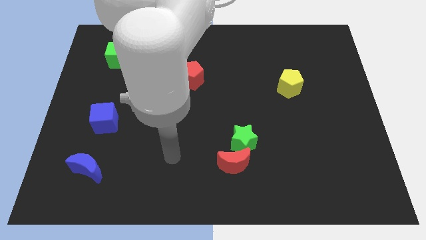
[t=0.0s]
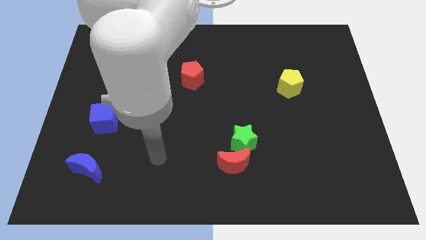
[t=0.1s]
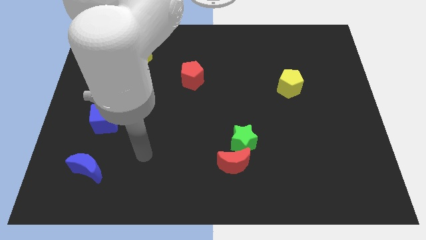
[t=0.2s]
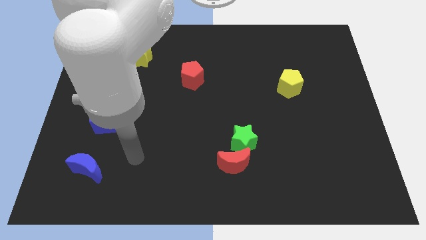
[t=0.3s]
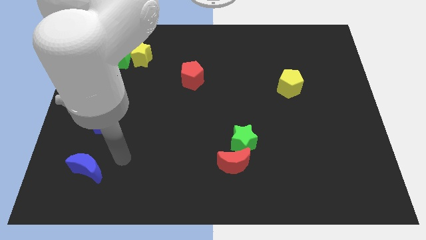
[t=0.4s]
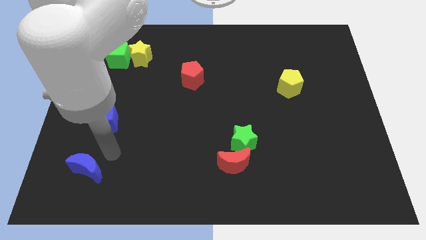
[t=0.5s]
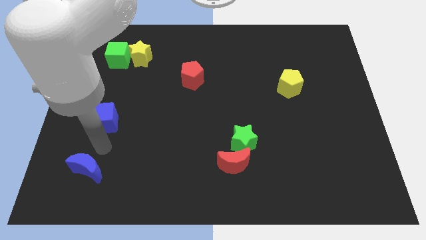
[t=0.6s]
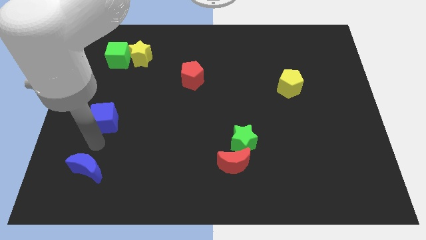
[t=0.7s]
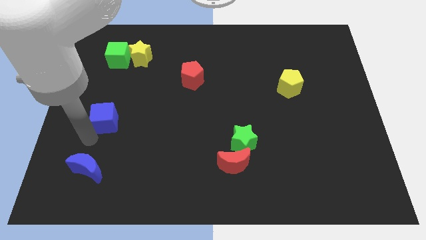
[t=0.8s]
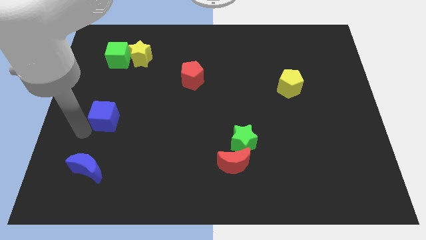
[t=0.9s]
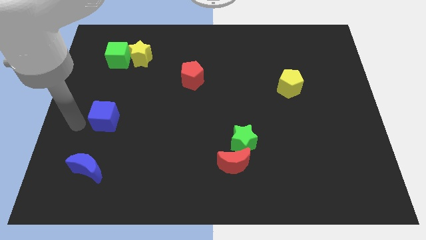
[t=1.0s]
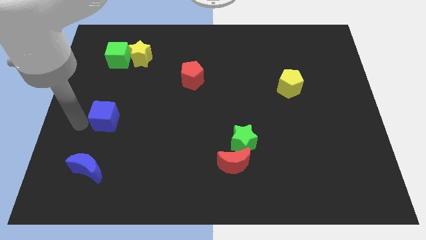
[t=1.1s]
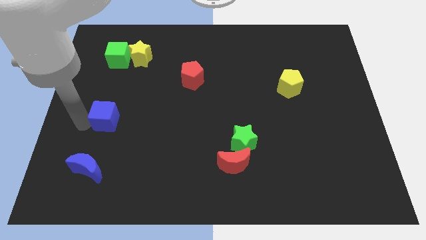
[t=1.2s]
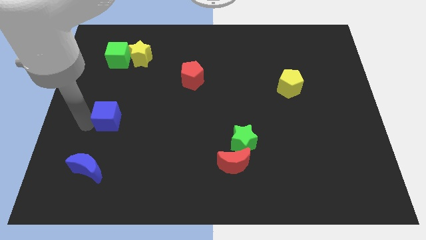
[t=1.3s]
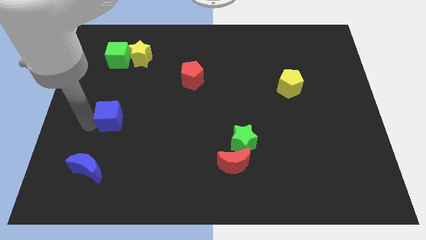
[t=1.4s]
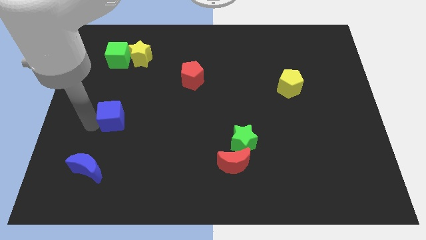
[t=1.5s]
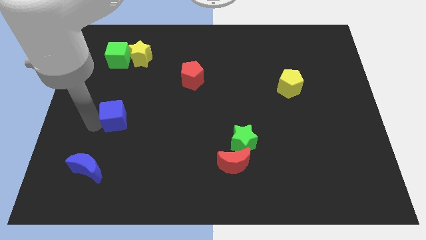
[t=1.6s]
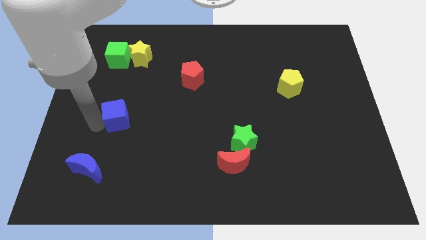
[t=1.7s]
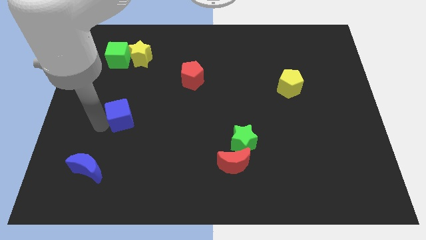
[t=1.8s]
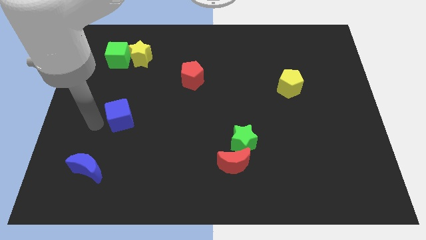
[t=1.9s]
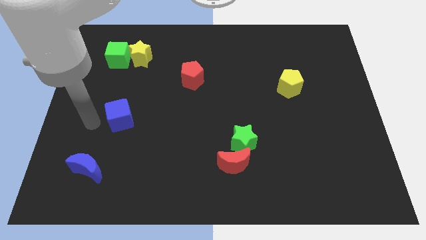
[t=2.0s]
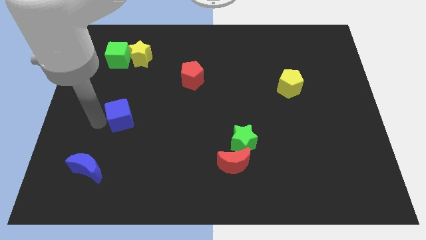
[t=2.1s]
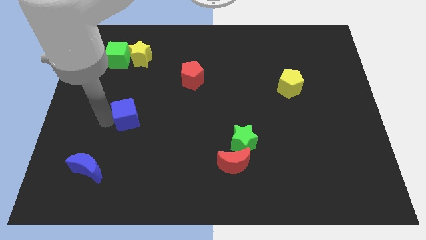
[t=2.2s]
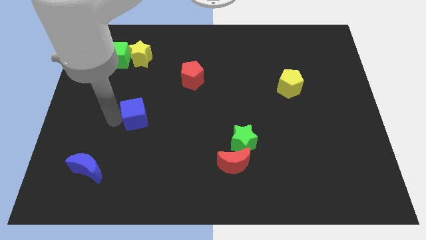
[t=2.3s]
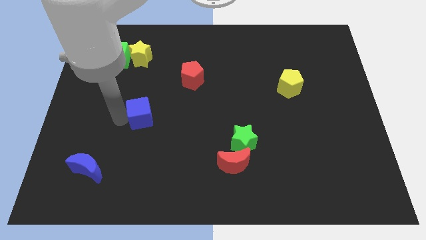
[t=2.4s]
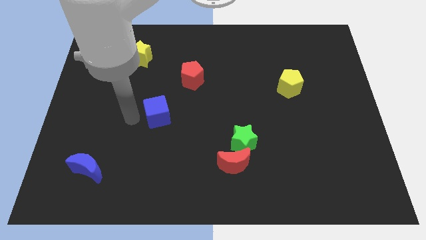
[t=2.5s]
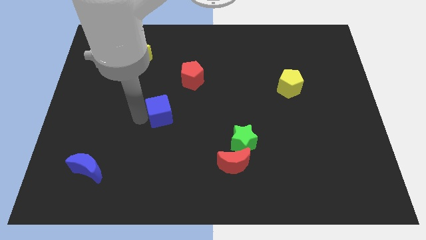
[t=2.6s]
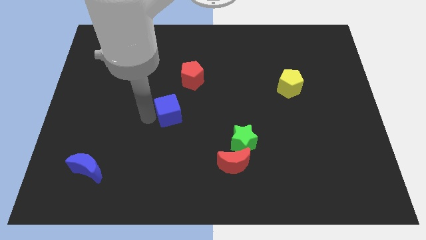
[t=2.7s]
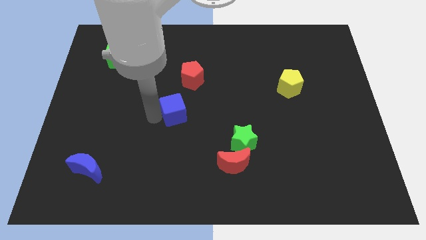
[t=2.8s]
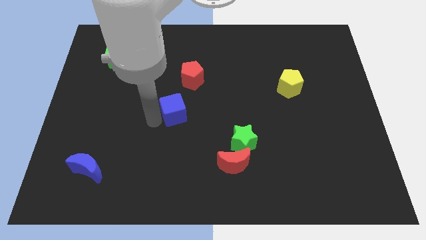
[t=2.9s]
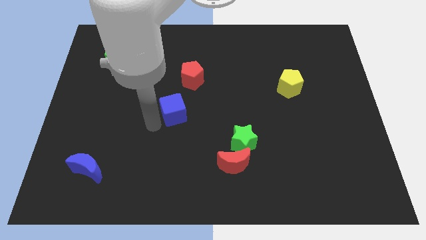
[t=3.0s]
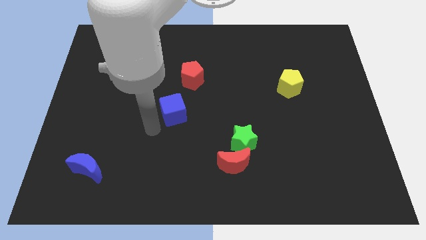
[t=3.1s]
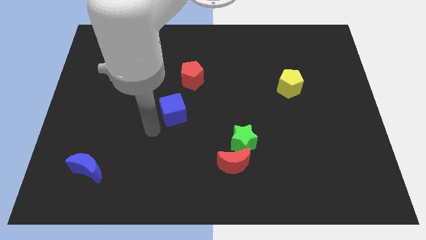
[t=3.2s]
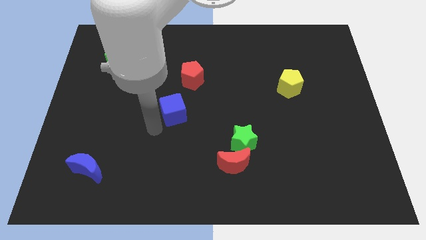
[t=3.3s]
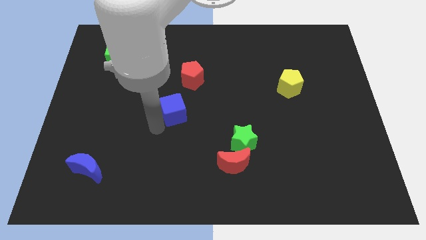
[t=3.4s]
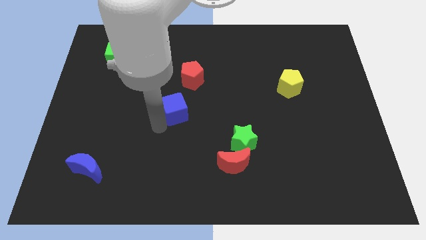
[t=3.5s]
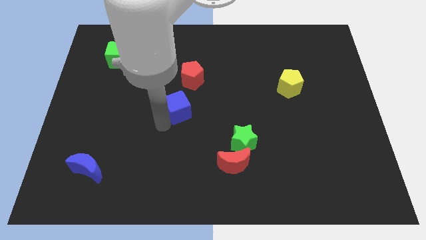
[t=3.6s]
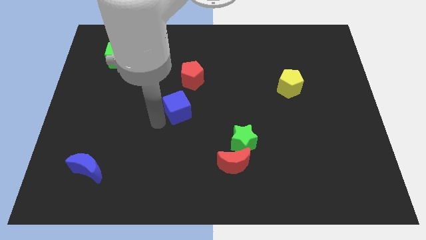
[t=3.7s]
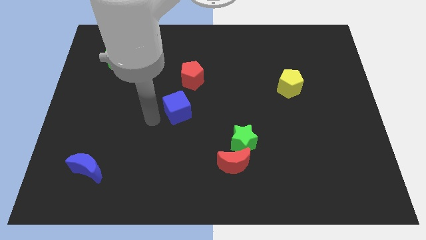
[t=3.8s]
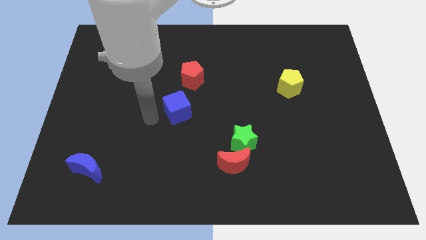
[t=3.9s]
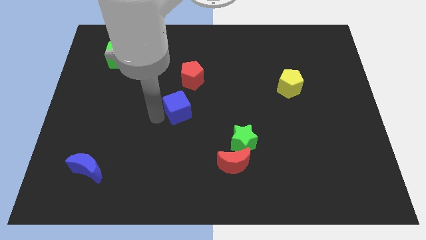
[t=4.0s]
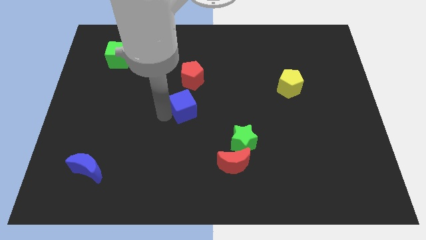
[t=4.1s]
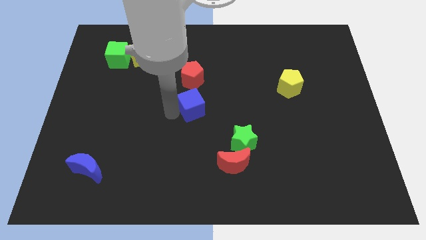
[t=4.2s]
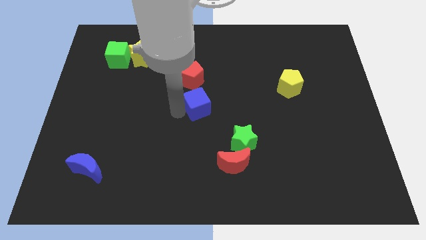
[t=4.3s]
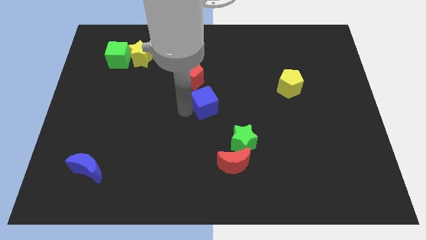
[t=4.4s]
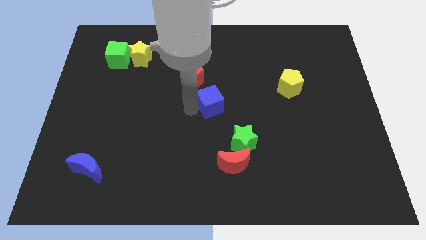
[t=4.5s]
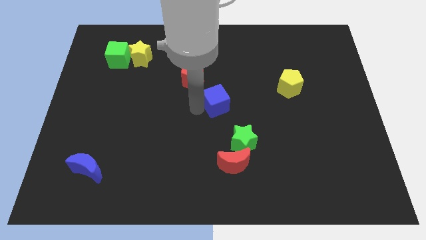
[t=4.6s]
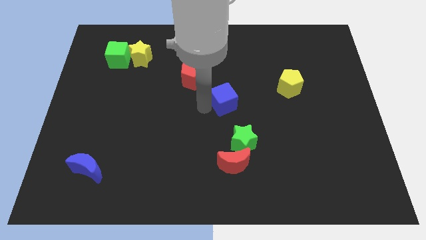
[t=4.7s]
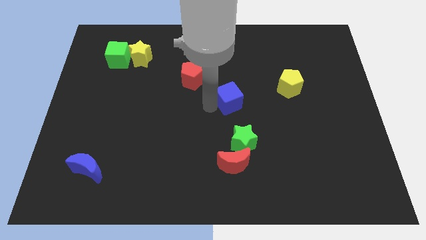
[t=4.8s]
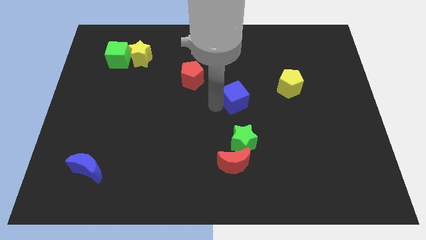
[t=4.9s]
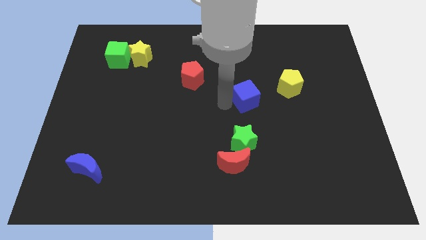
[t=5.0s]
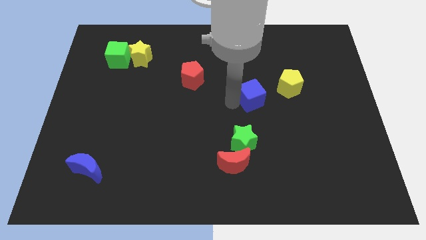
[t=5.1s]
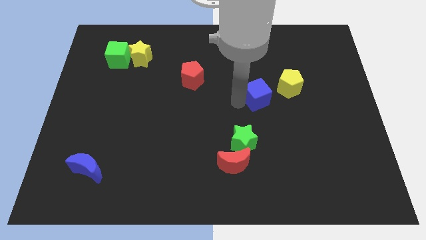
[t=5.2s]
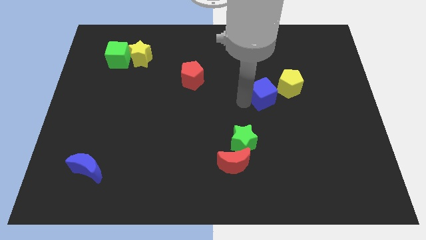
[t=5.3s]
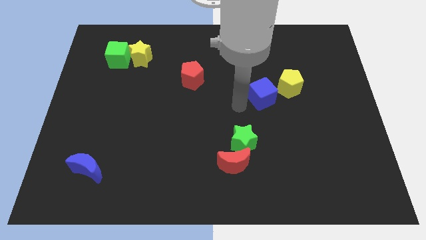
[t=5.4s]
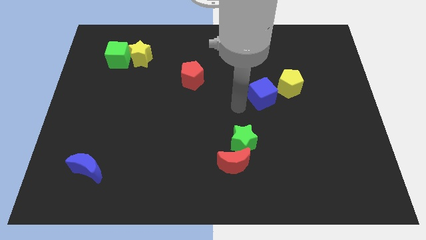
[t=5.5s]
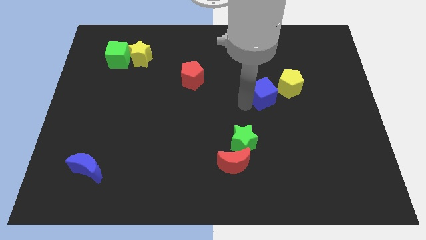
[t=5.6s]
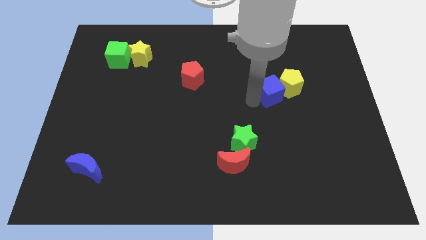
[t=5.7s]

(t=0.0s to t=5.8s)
put the blue cube towards the yellow pentagon

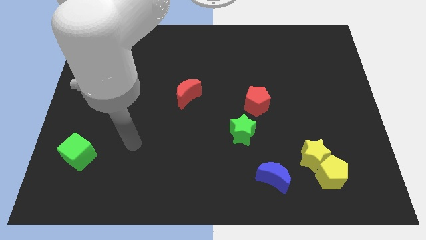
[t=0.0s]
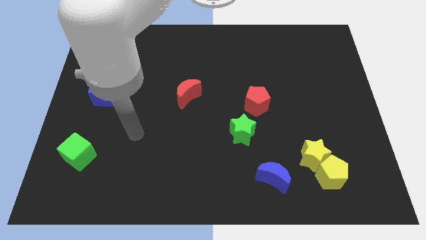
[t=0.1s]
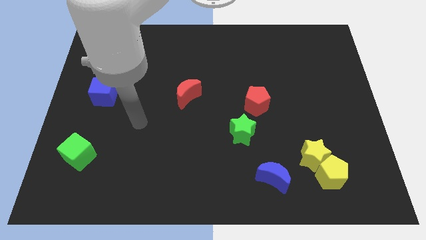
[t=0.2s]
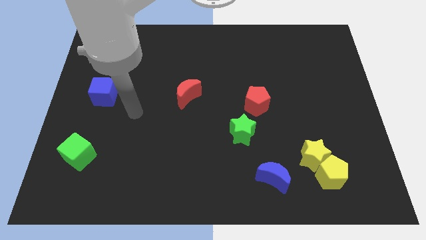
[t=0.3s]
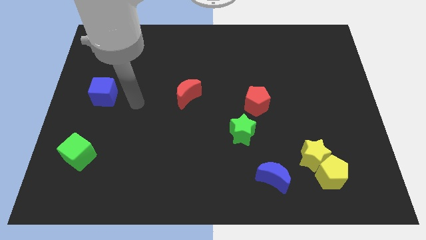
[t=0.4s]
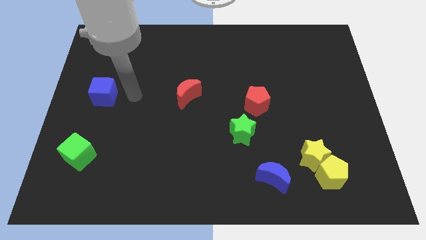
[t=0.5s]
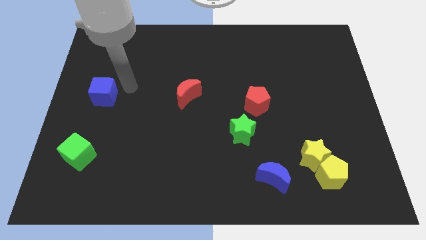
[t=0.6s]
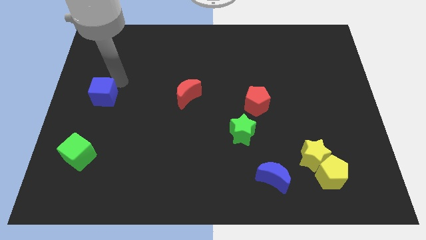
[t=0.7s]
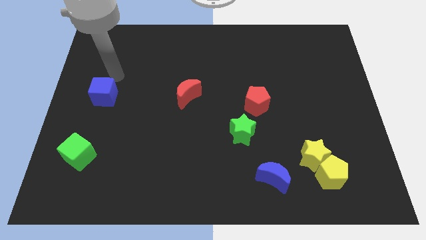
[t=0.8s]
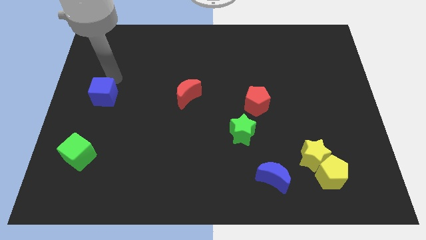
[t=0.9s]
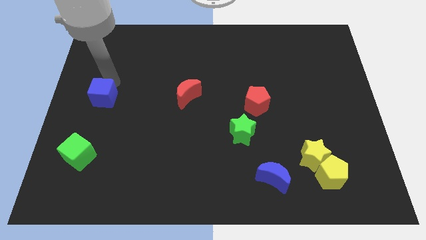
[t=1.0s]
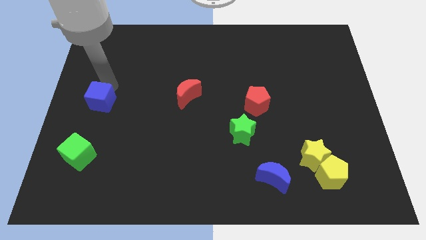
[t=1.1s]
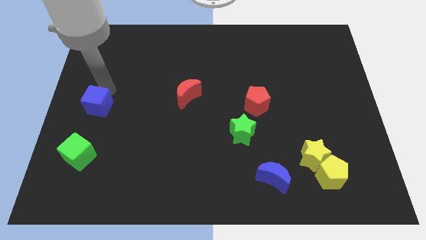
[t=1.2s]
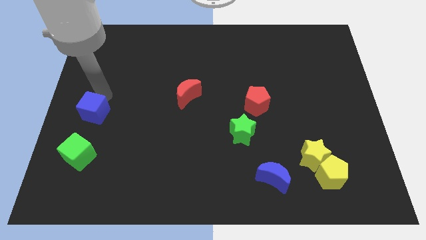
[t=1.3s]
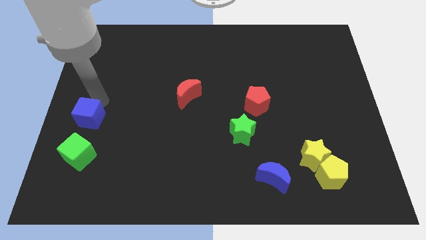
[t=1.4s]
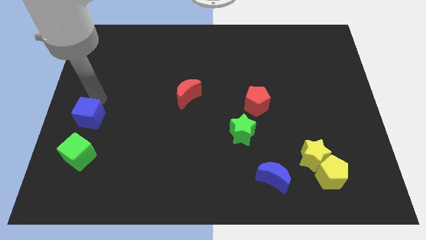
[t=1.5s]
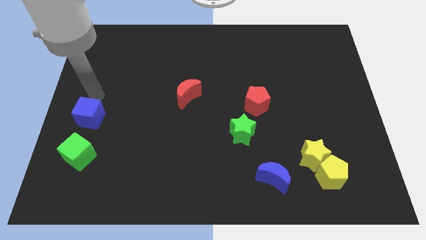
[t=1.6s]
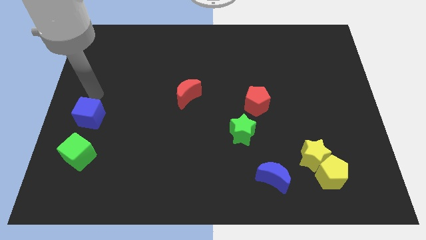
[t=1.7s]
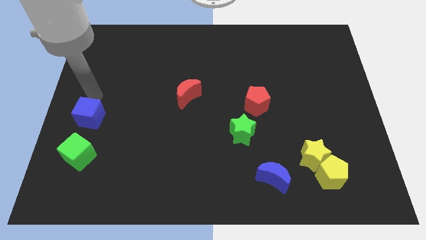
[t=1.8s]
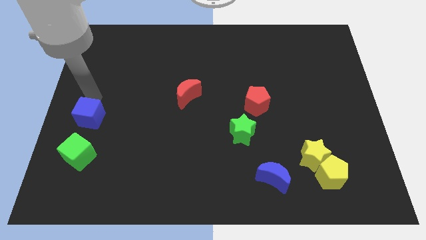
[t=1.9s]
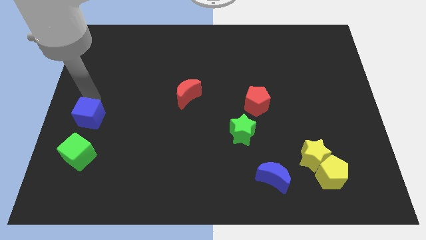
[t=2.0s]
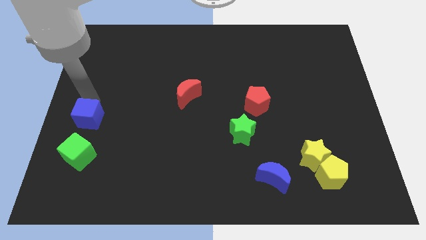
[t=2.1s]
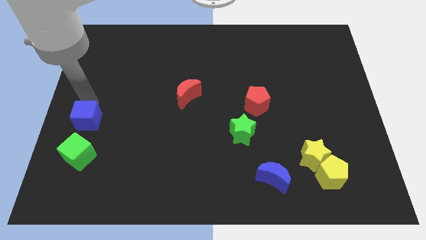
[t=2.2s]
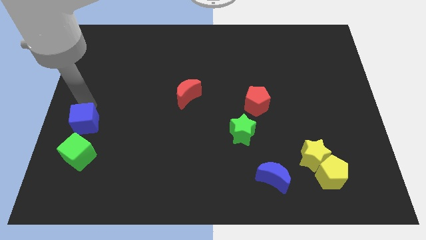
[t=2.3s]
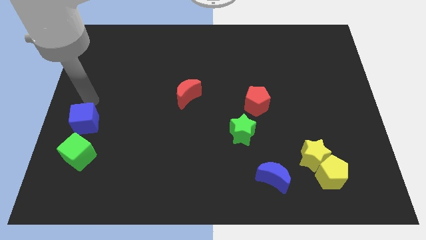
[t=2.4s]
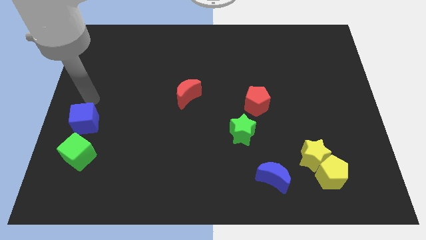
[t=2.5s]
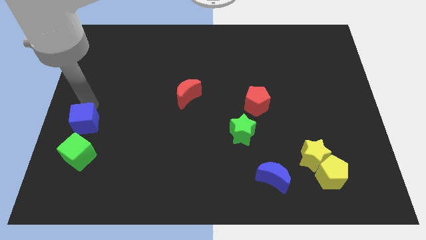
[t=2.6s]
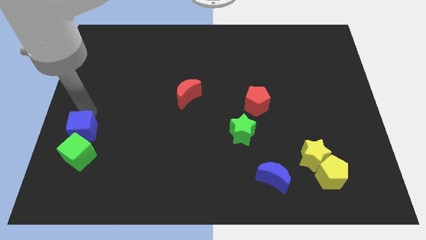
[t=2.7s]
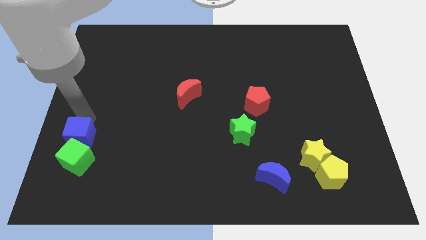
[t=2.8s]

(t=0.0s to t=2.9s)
put the blue cube to the green cube
